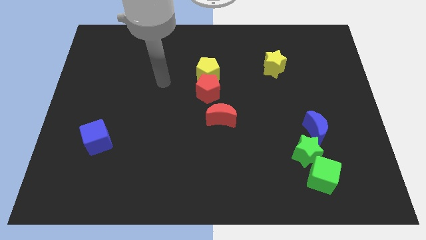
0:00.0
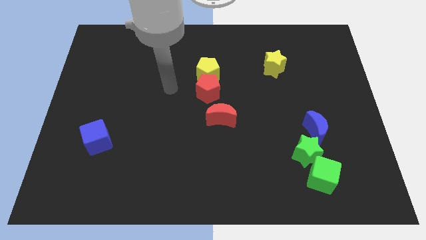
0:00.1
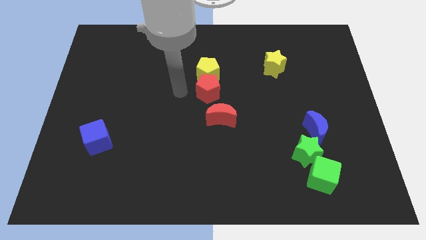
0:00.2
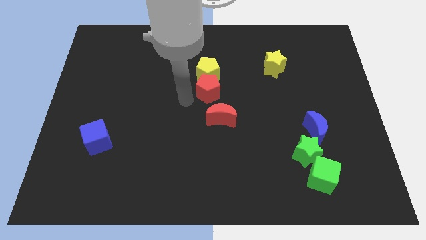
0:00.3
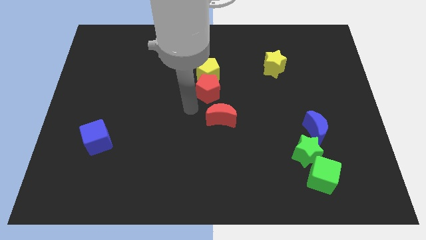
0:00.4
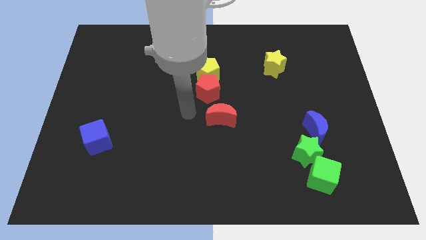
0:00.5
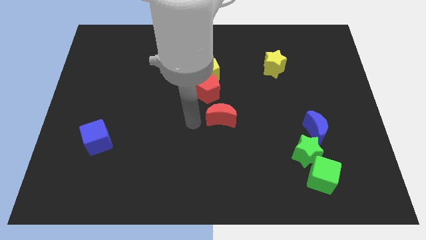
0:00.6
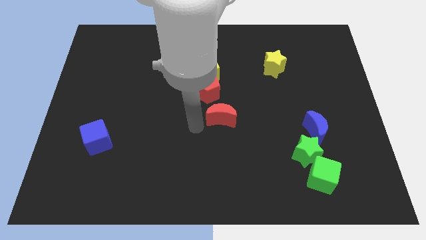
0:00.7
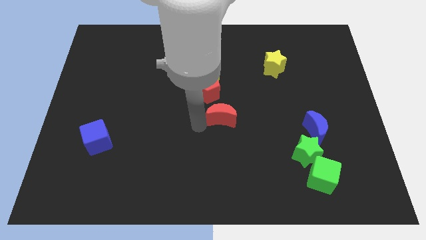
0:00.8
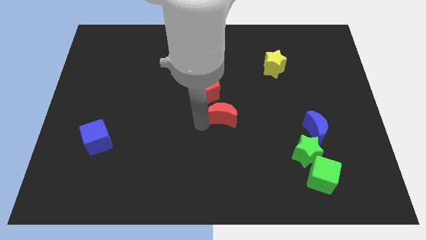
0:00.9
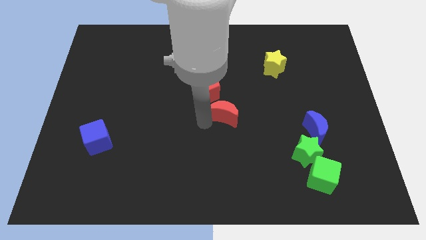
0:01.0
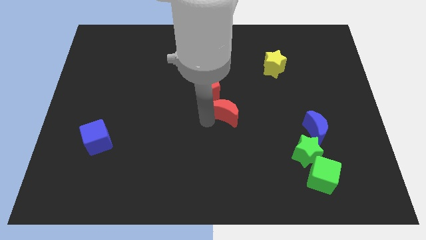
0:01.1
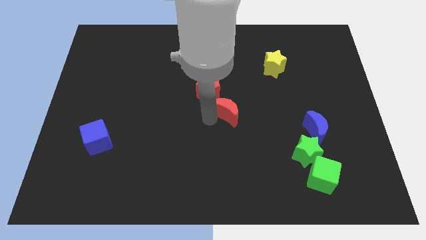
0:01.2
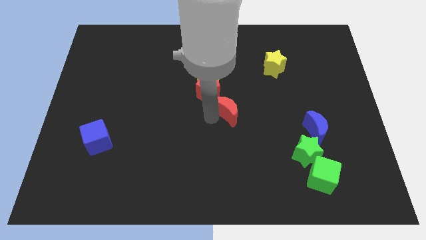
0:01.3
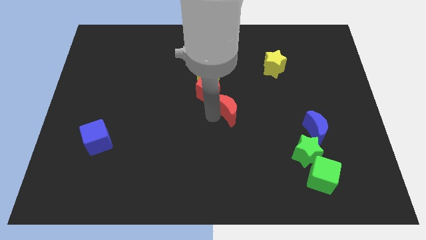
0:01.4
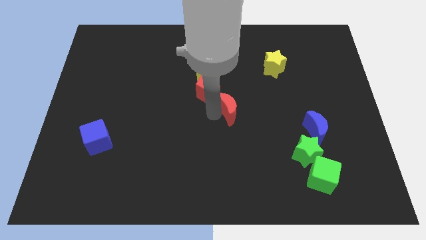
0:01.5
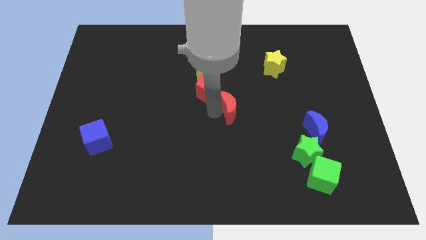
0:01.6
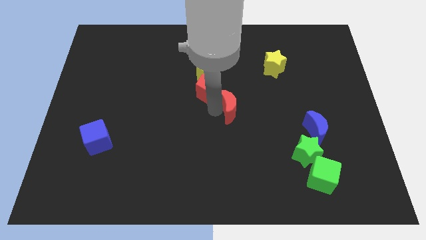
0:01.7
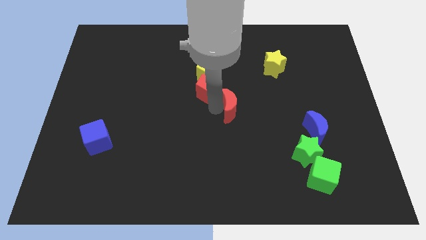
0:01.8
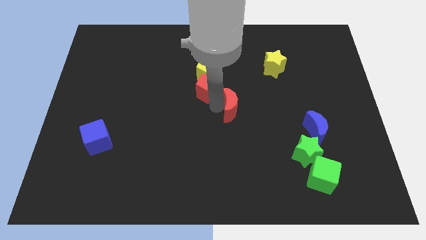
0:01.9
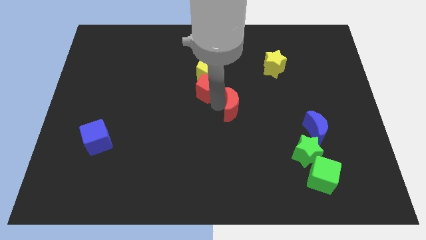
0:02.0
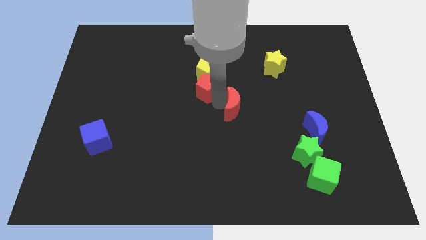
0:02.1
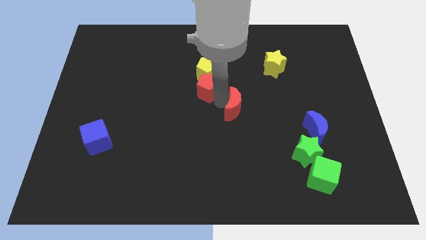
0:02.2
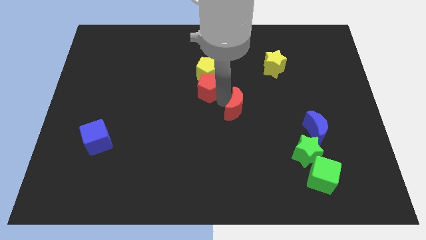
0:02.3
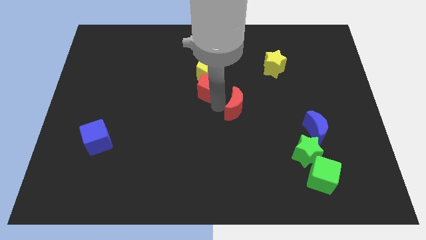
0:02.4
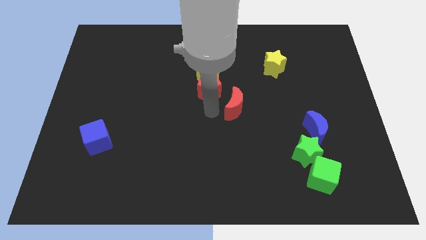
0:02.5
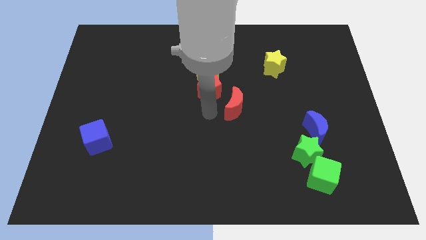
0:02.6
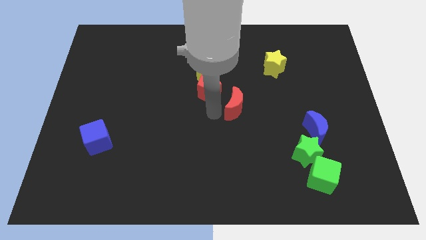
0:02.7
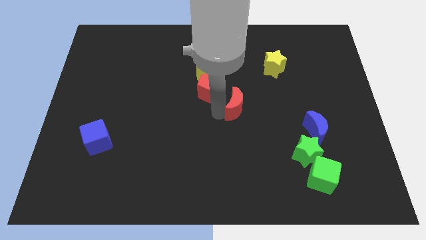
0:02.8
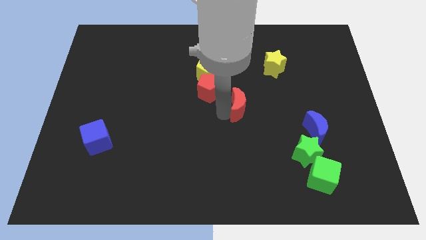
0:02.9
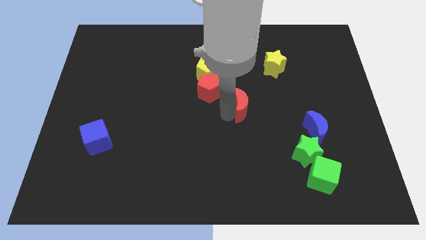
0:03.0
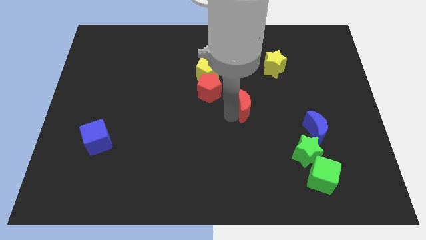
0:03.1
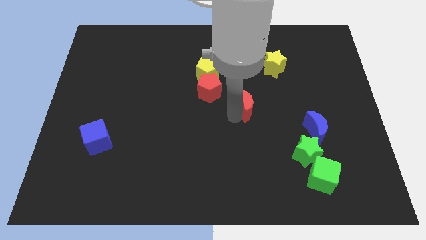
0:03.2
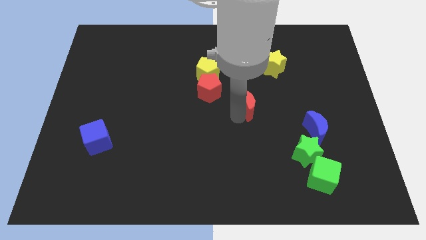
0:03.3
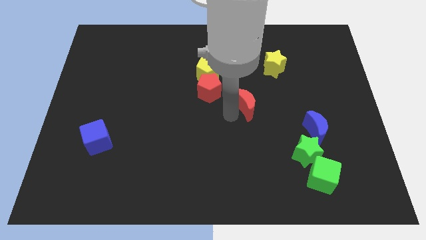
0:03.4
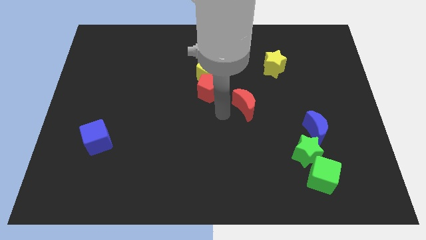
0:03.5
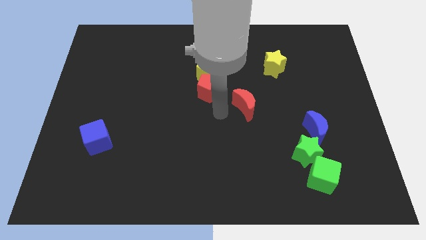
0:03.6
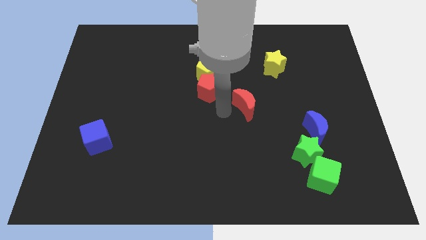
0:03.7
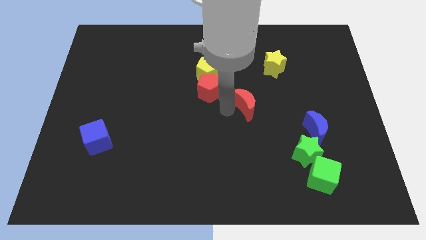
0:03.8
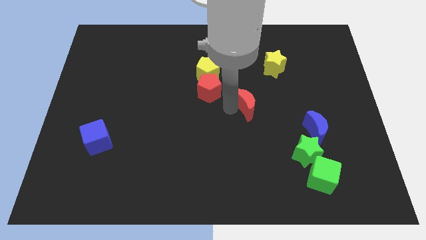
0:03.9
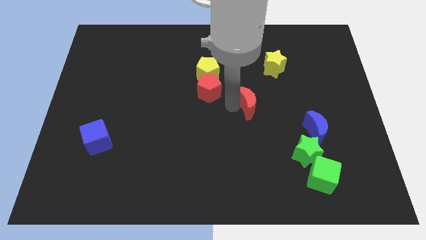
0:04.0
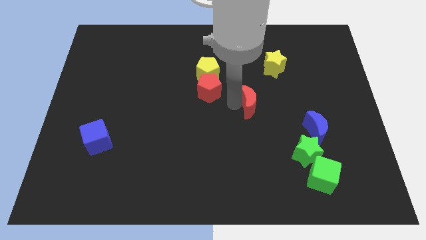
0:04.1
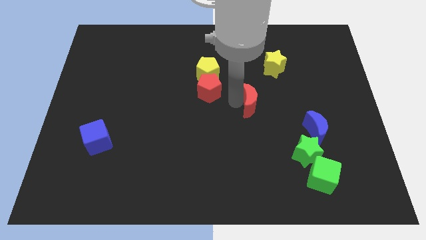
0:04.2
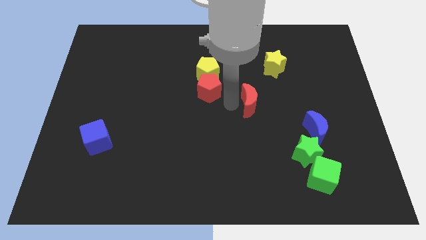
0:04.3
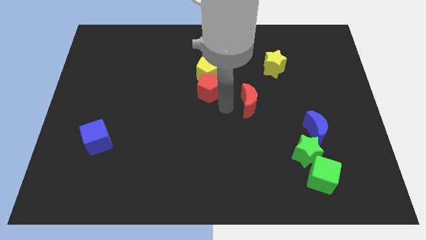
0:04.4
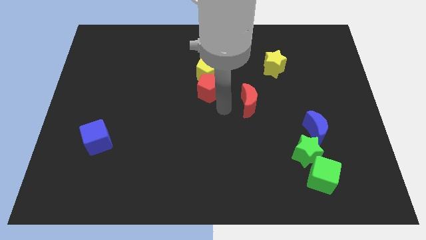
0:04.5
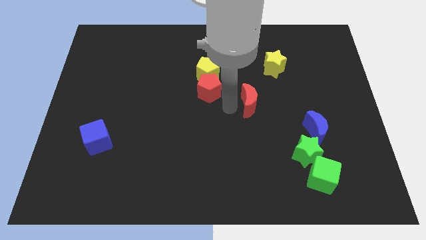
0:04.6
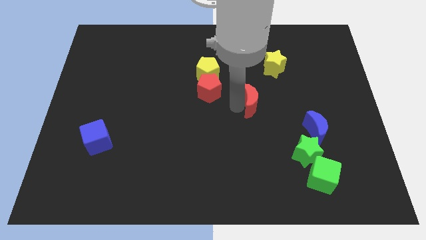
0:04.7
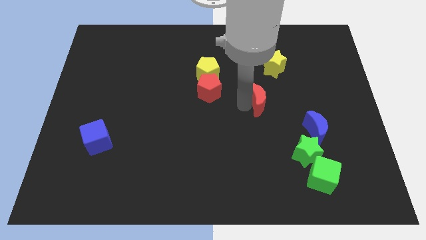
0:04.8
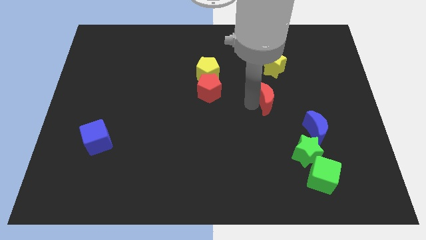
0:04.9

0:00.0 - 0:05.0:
slide the red moon to the bottom side of the yellow star

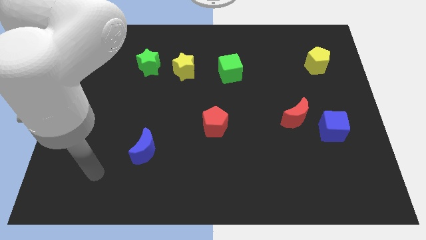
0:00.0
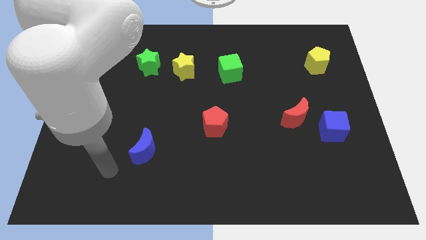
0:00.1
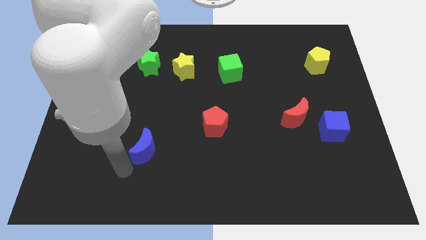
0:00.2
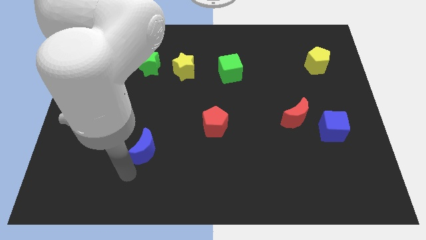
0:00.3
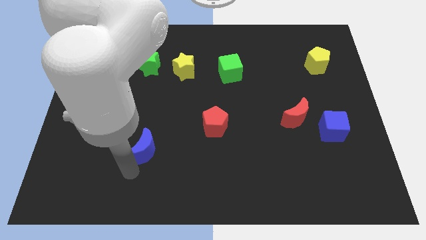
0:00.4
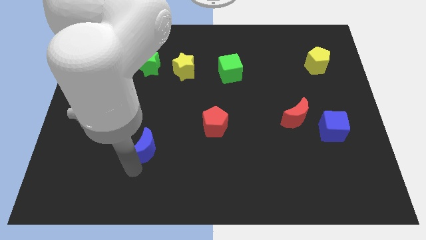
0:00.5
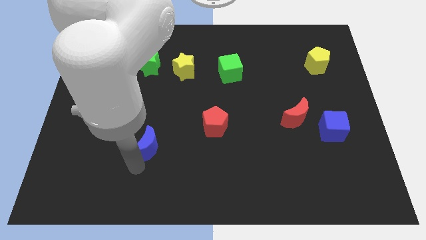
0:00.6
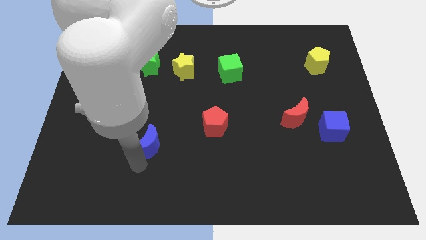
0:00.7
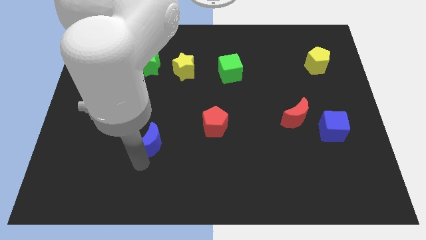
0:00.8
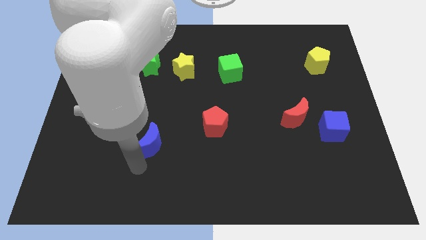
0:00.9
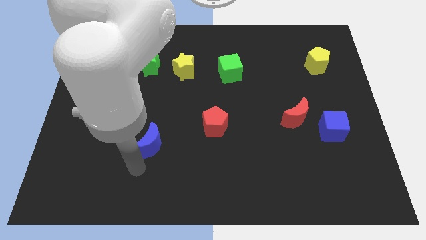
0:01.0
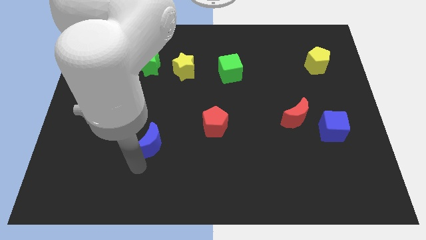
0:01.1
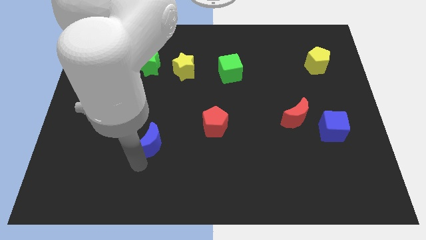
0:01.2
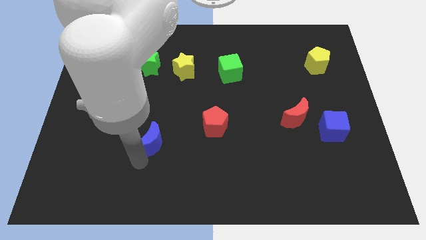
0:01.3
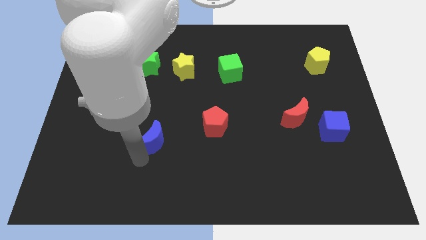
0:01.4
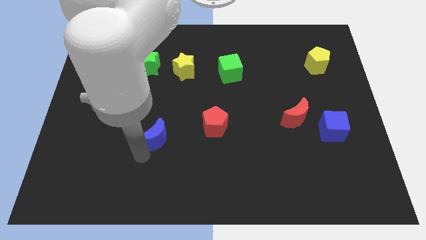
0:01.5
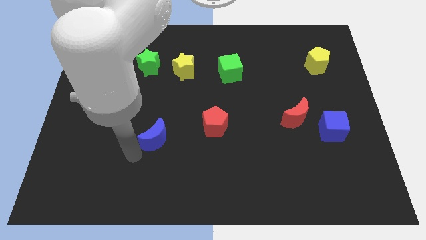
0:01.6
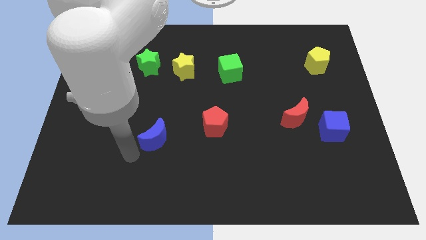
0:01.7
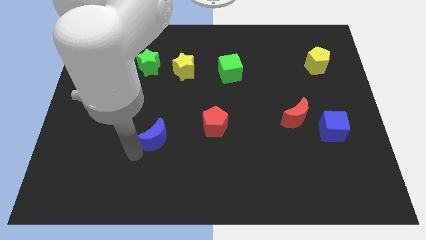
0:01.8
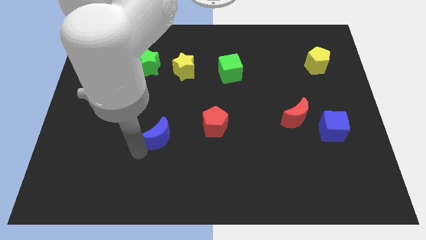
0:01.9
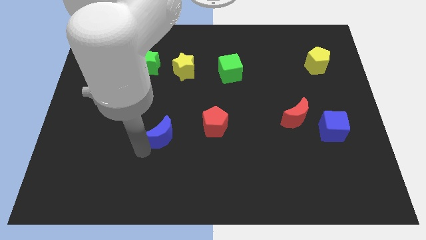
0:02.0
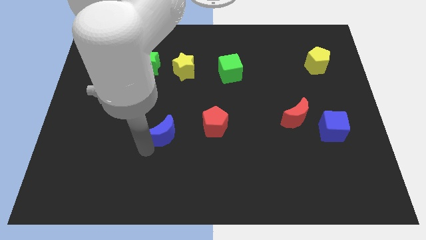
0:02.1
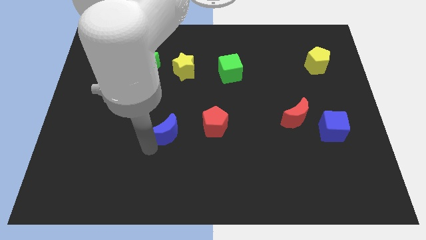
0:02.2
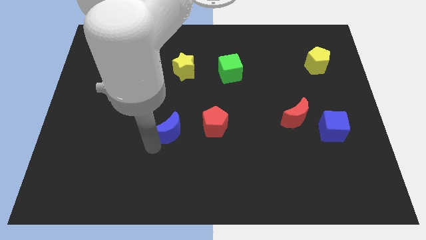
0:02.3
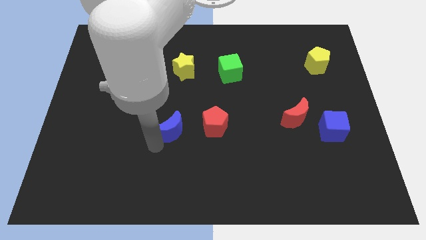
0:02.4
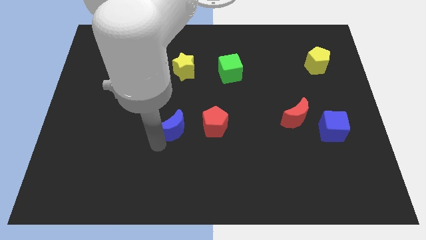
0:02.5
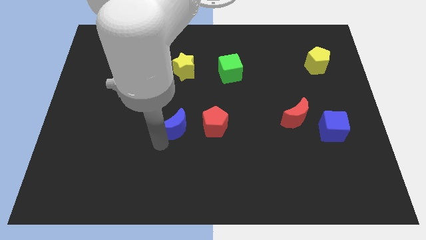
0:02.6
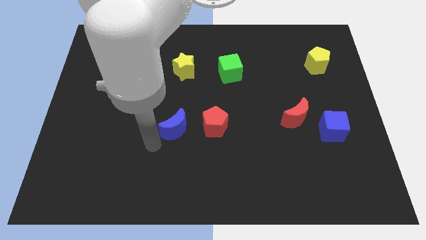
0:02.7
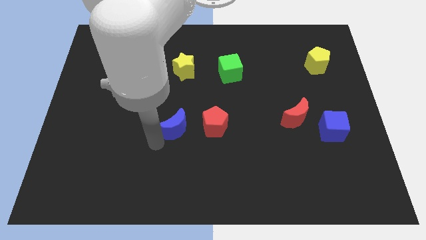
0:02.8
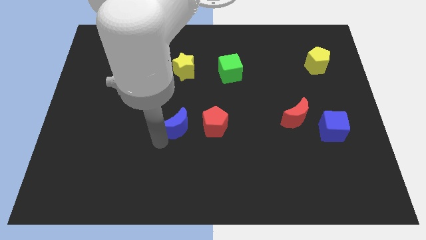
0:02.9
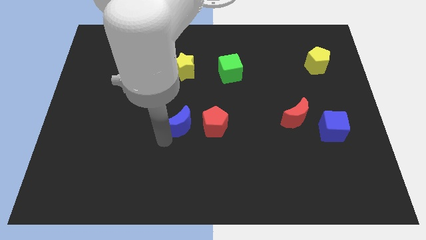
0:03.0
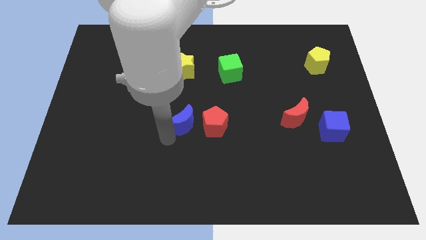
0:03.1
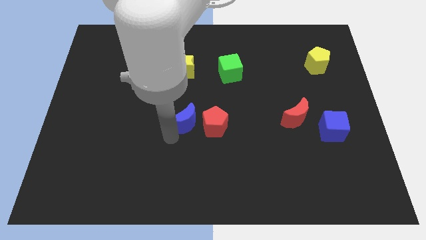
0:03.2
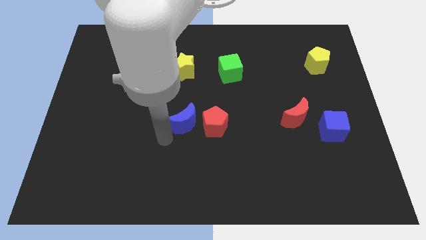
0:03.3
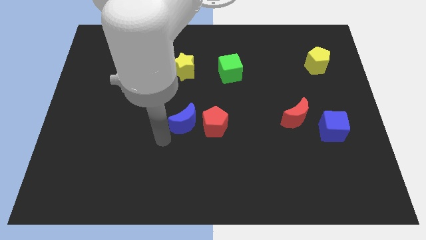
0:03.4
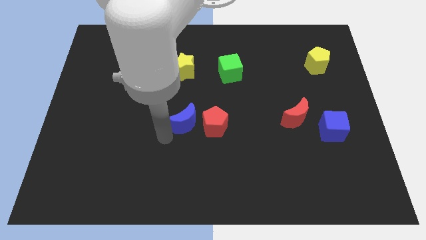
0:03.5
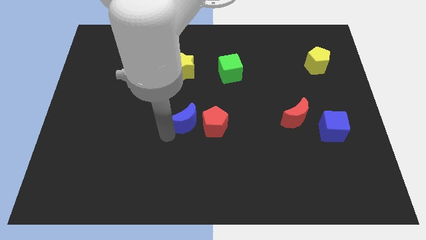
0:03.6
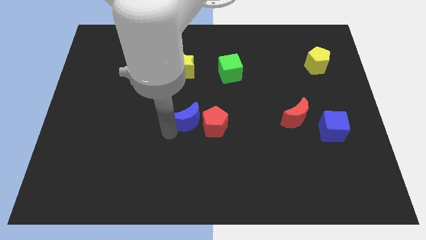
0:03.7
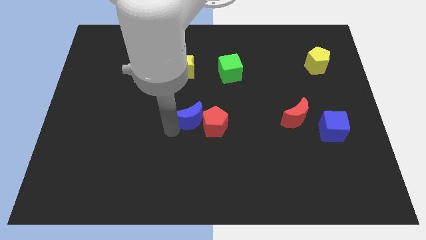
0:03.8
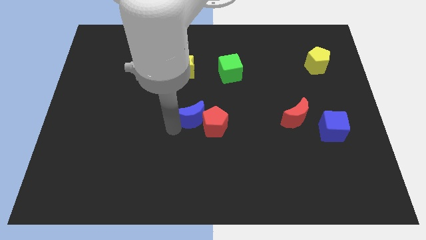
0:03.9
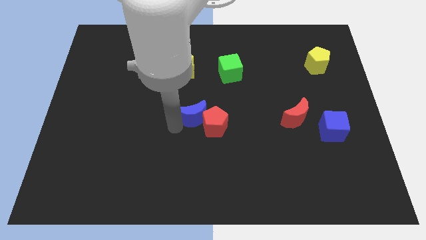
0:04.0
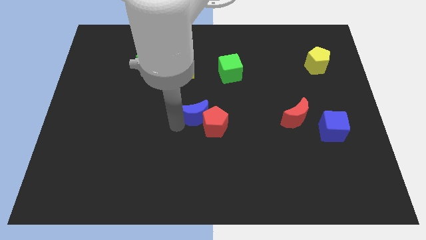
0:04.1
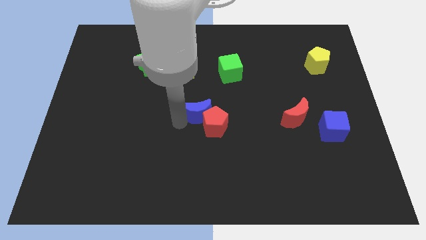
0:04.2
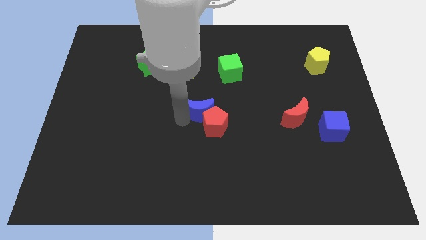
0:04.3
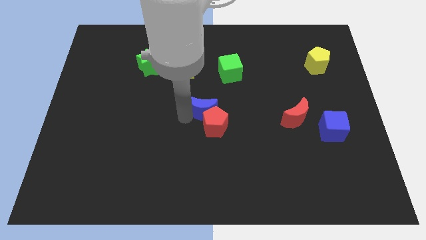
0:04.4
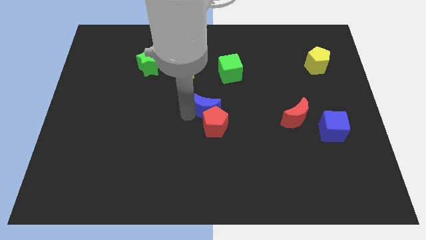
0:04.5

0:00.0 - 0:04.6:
move the blue moon to the top right side of the red pentagon
